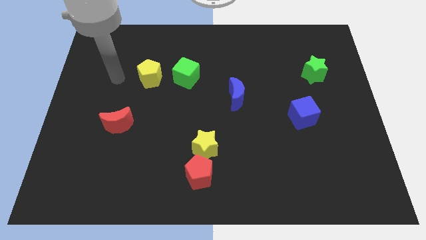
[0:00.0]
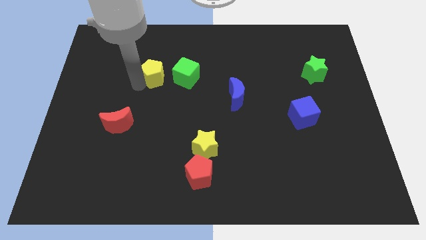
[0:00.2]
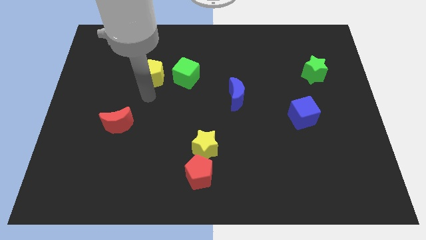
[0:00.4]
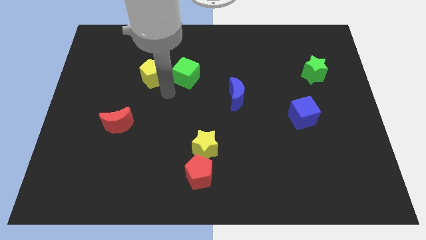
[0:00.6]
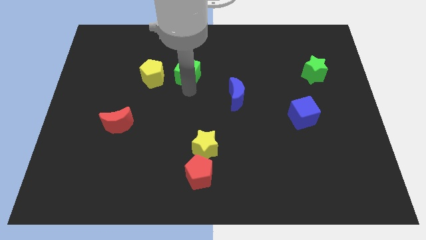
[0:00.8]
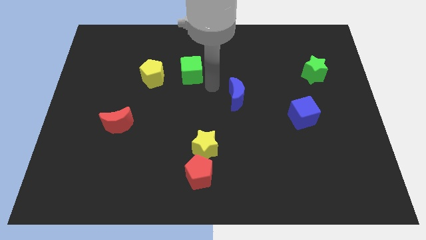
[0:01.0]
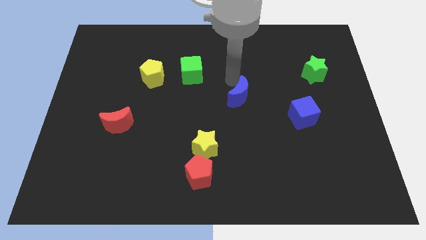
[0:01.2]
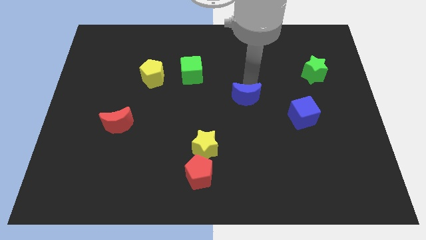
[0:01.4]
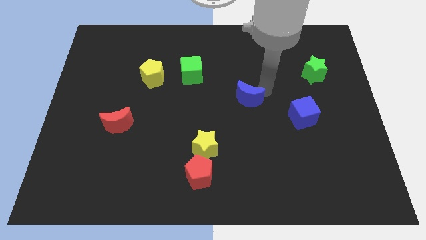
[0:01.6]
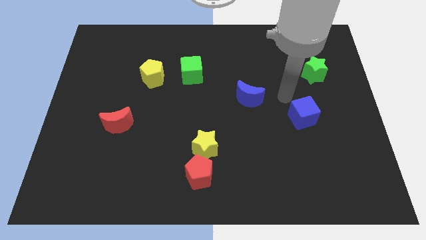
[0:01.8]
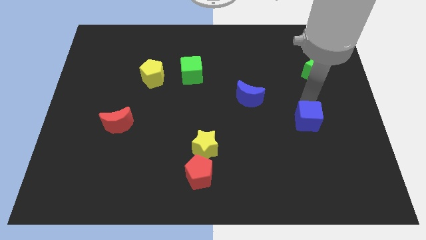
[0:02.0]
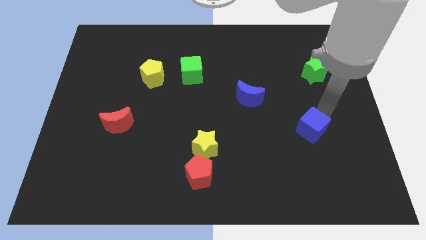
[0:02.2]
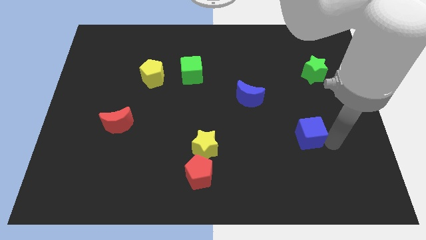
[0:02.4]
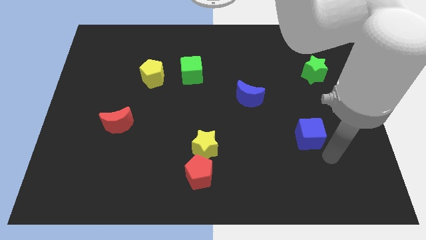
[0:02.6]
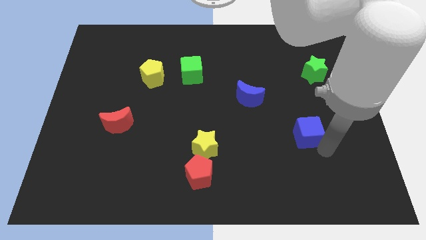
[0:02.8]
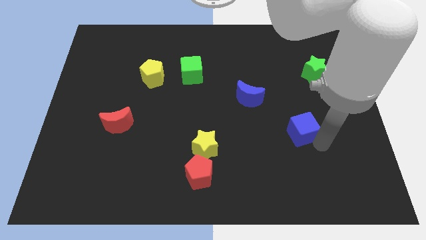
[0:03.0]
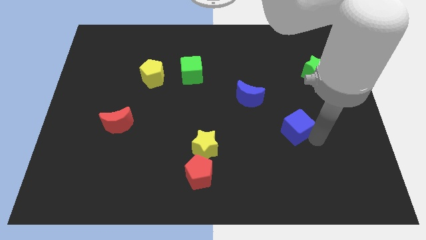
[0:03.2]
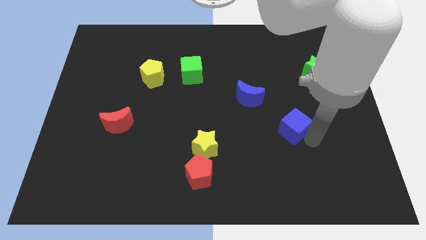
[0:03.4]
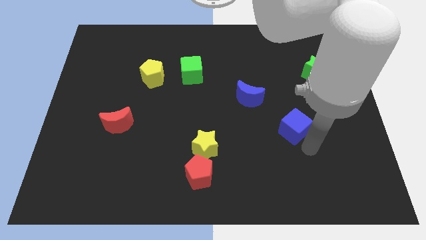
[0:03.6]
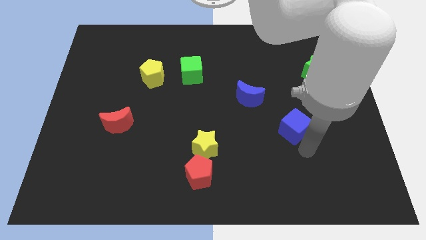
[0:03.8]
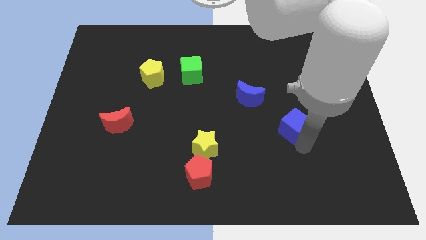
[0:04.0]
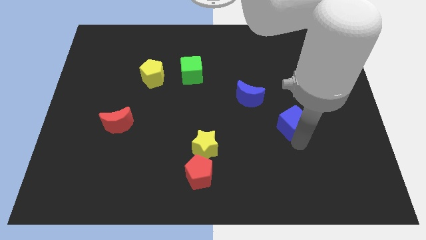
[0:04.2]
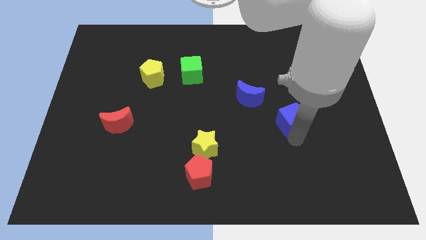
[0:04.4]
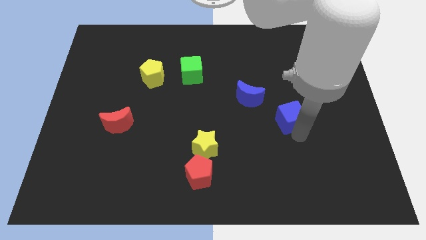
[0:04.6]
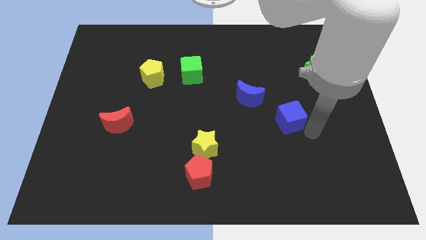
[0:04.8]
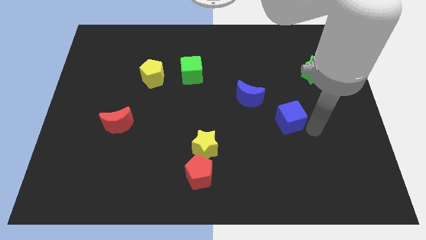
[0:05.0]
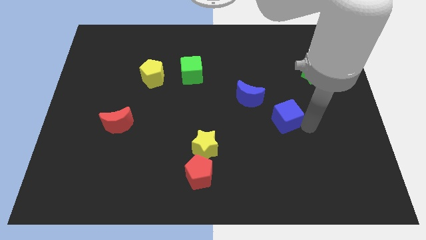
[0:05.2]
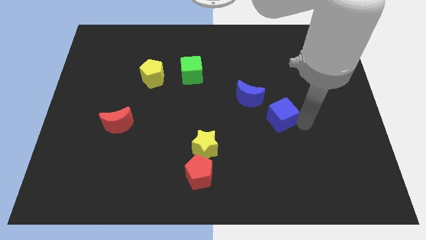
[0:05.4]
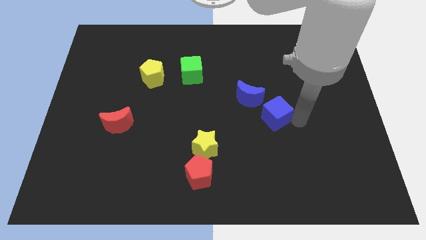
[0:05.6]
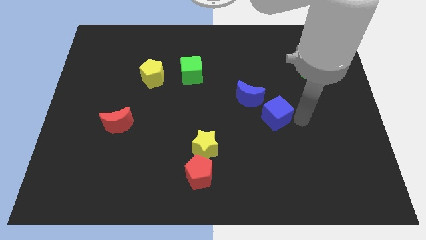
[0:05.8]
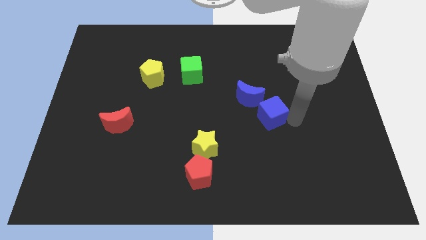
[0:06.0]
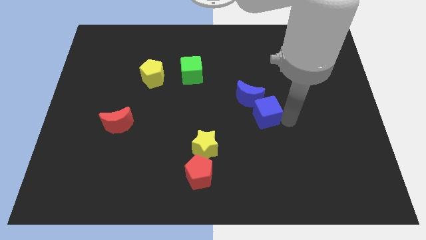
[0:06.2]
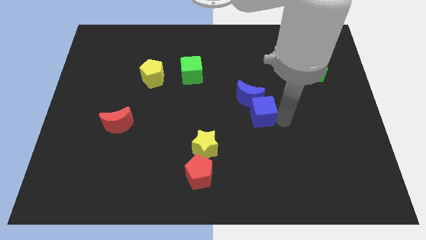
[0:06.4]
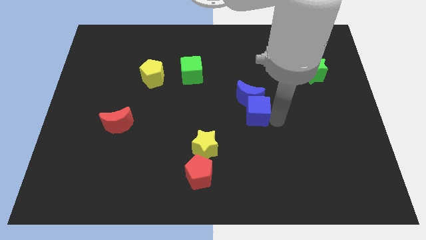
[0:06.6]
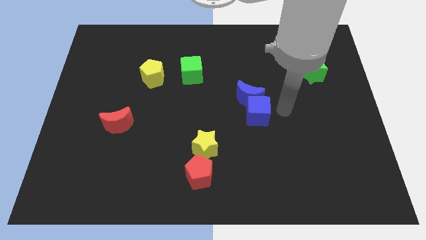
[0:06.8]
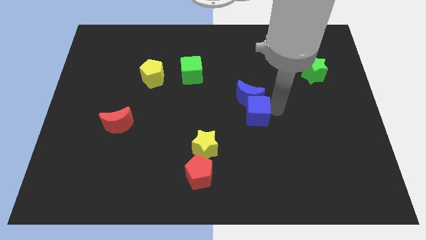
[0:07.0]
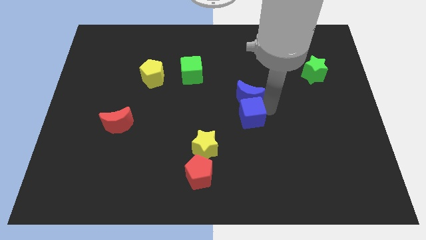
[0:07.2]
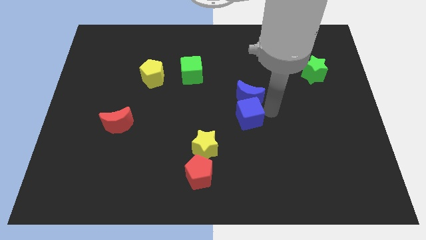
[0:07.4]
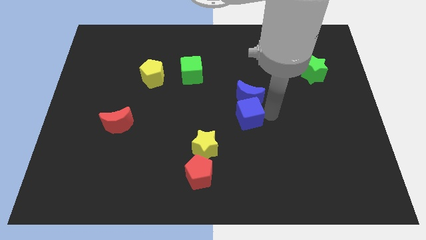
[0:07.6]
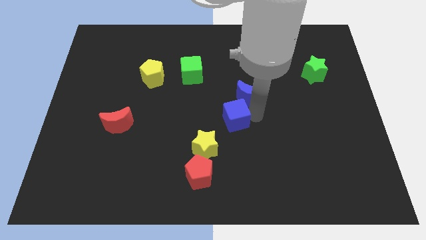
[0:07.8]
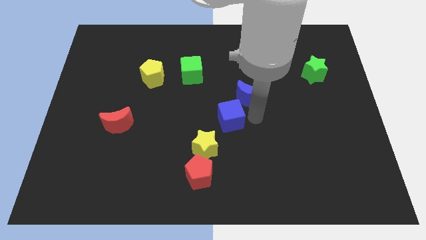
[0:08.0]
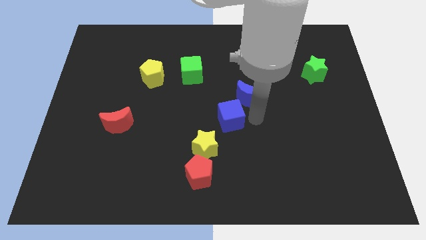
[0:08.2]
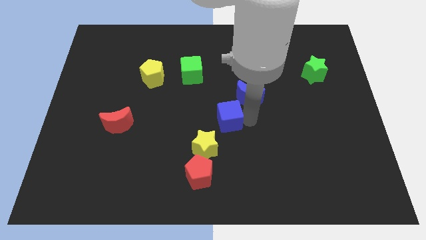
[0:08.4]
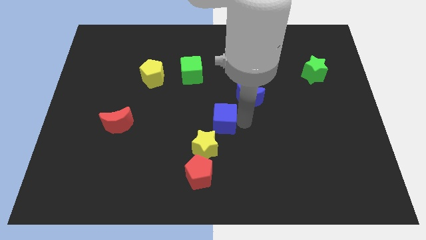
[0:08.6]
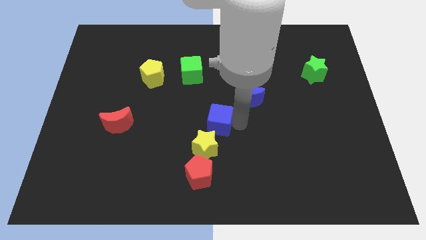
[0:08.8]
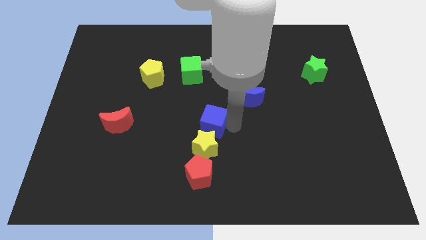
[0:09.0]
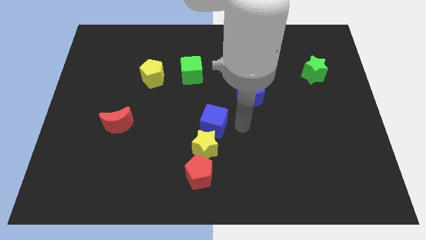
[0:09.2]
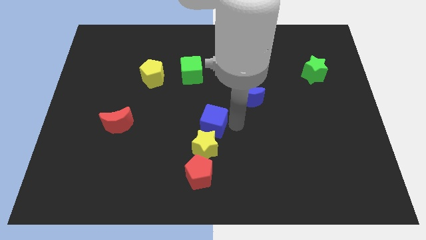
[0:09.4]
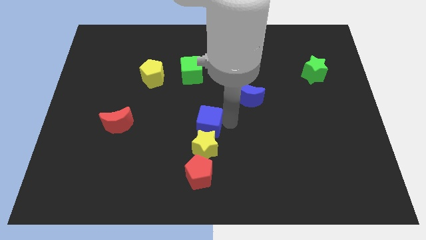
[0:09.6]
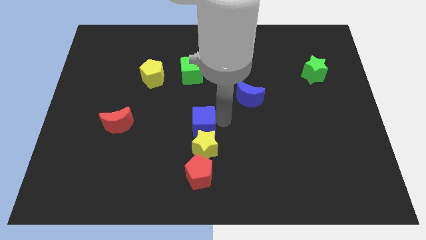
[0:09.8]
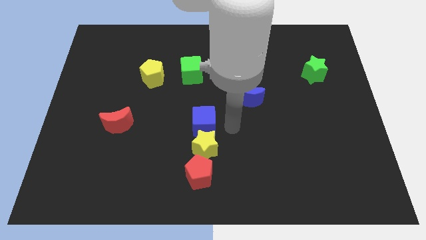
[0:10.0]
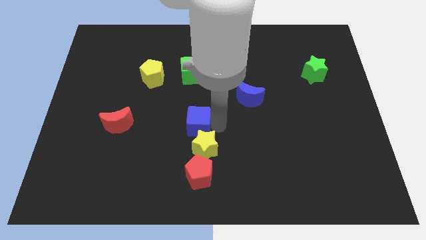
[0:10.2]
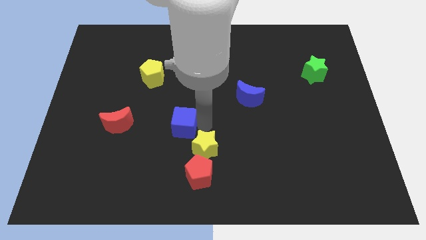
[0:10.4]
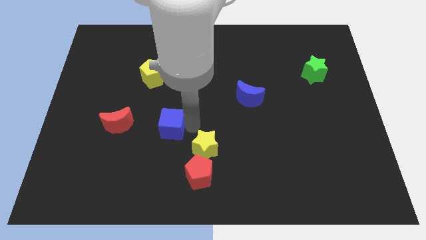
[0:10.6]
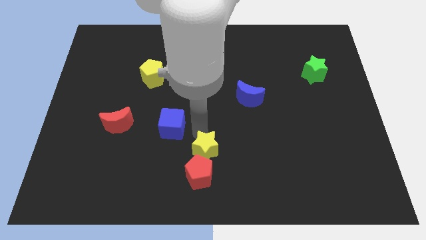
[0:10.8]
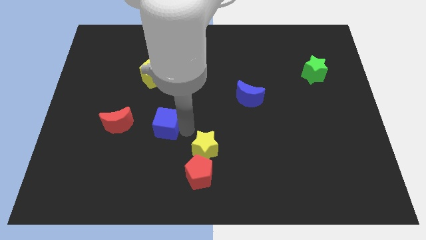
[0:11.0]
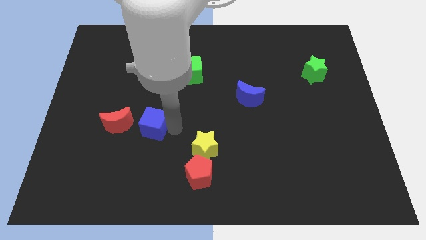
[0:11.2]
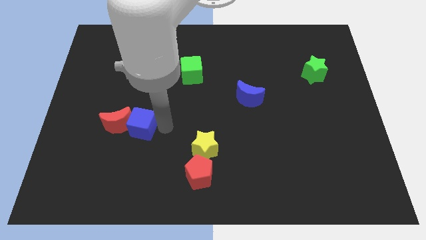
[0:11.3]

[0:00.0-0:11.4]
slide the blue cube next to the red moon
